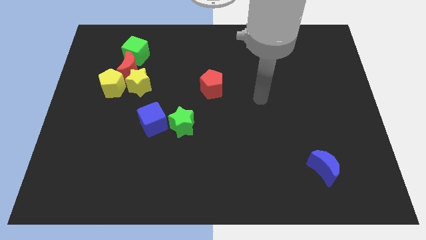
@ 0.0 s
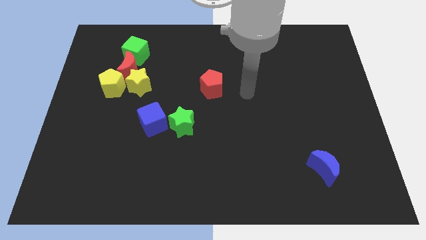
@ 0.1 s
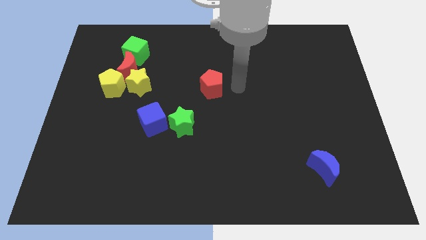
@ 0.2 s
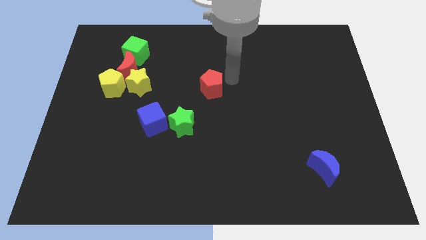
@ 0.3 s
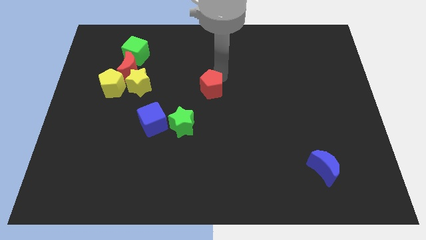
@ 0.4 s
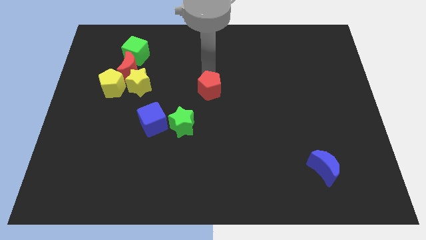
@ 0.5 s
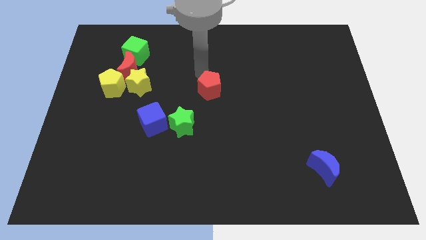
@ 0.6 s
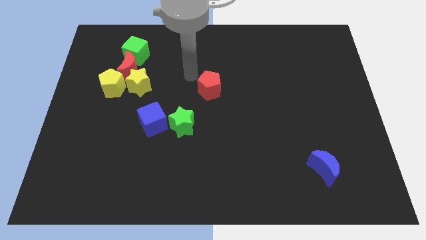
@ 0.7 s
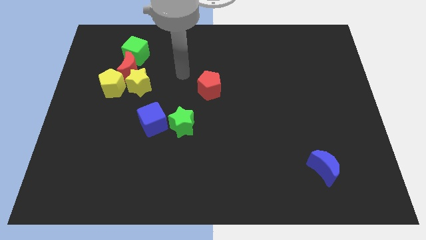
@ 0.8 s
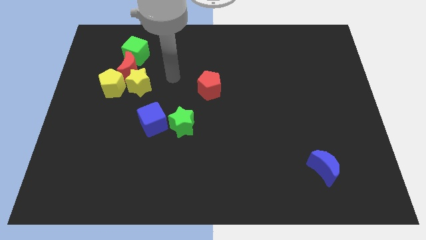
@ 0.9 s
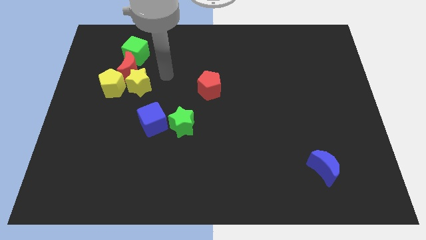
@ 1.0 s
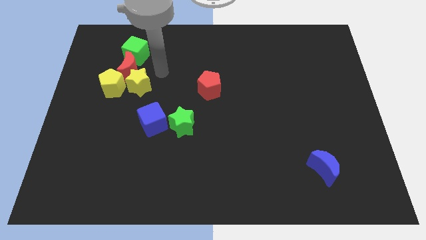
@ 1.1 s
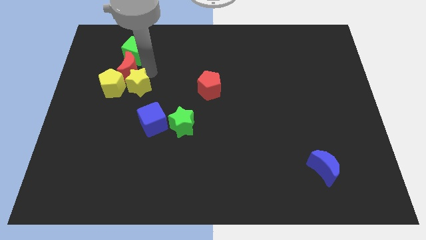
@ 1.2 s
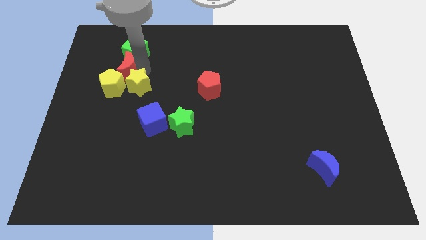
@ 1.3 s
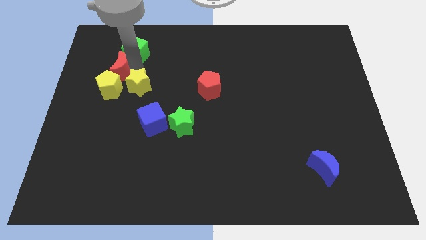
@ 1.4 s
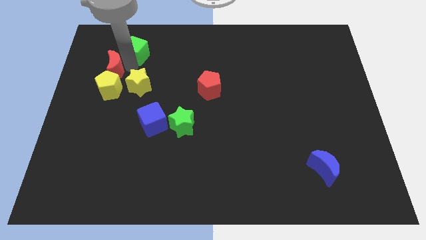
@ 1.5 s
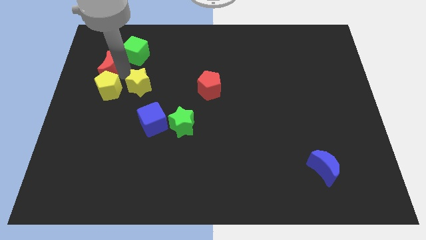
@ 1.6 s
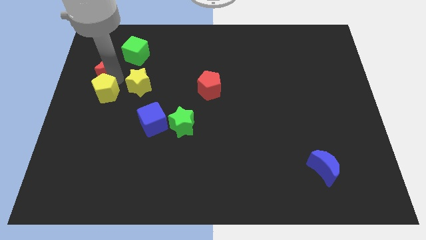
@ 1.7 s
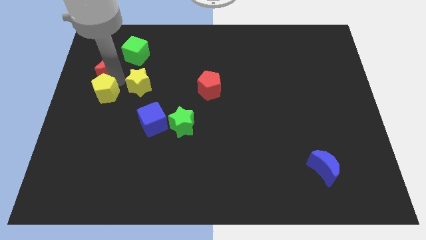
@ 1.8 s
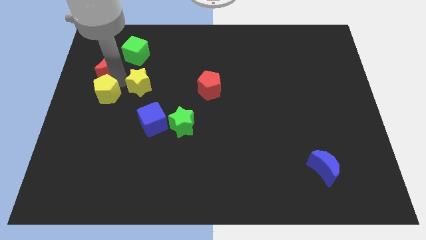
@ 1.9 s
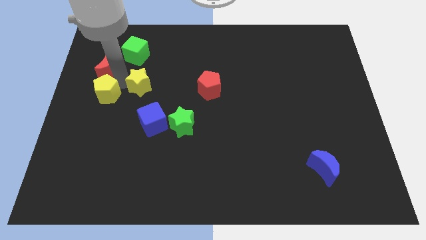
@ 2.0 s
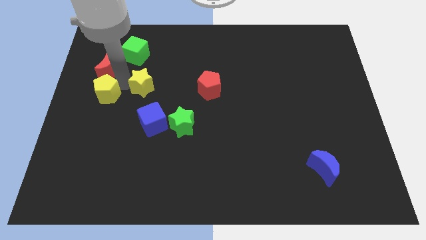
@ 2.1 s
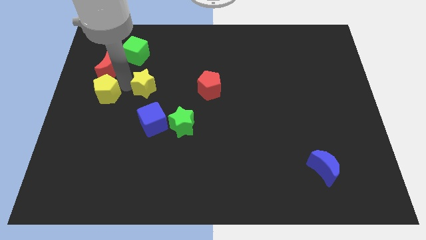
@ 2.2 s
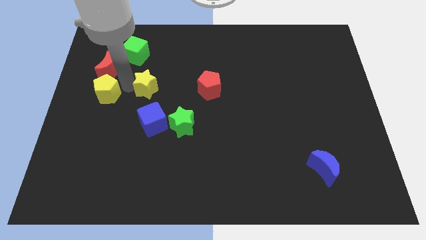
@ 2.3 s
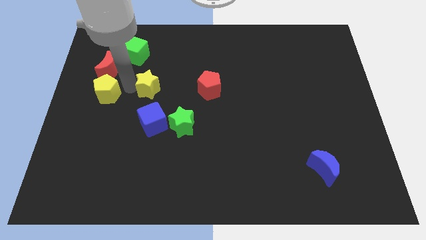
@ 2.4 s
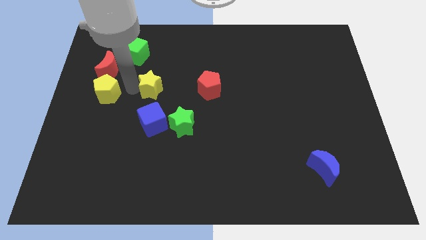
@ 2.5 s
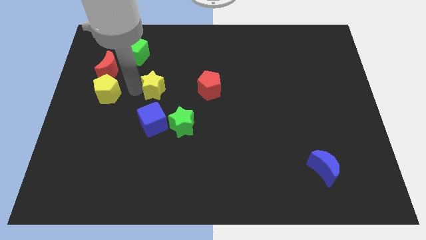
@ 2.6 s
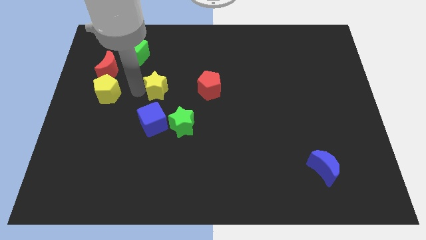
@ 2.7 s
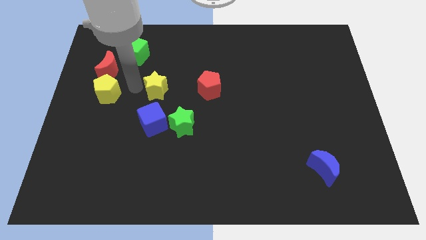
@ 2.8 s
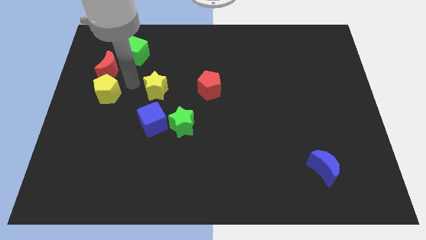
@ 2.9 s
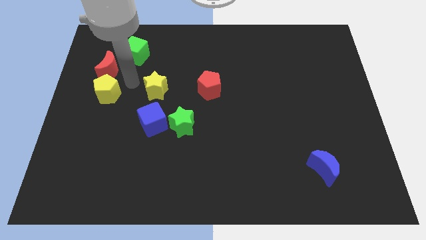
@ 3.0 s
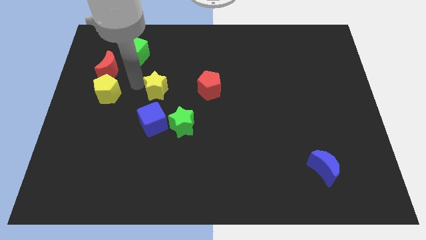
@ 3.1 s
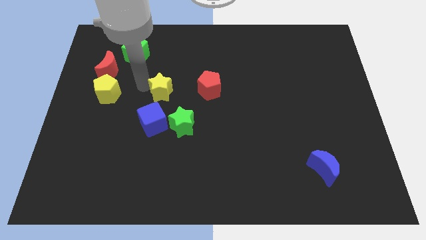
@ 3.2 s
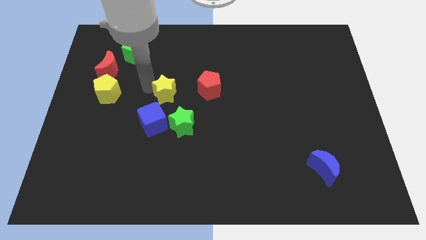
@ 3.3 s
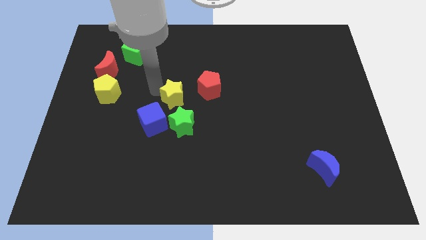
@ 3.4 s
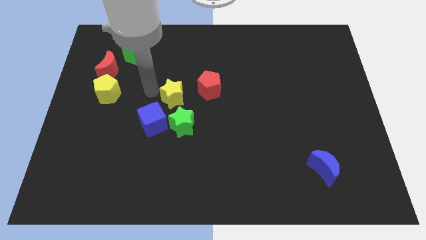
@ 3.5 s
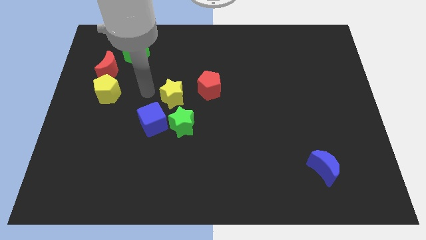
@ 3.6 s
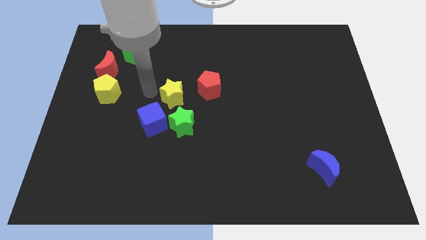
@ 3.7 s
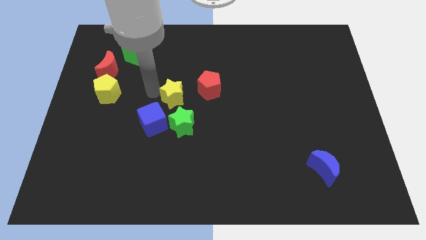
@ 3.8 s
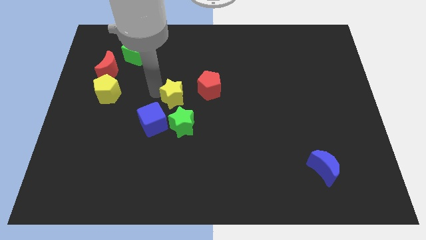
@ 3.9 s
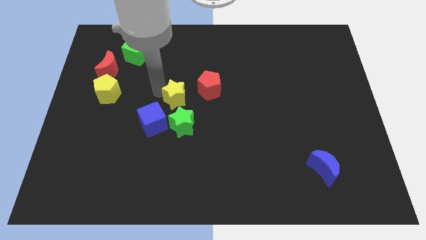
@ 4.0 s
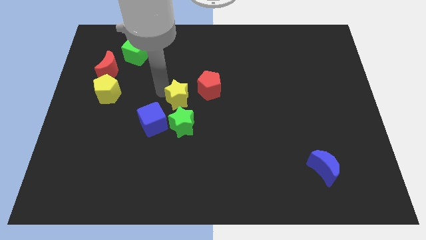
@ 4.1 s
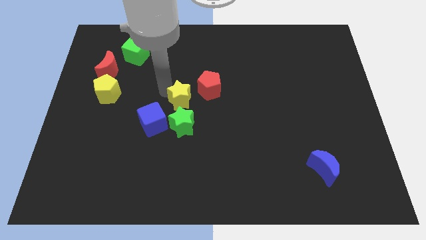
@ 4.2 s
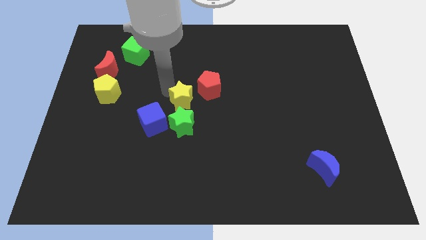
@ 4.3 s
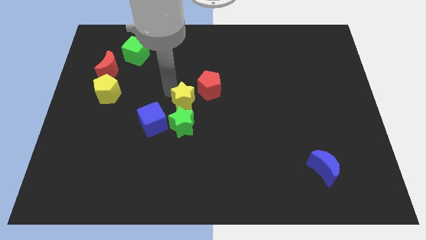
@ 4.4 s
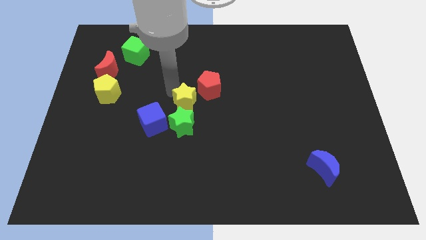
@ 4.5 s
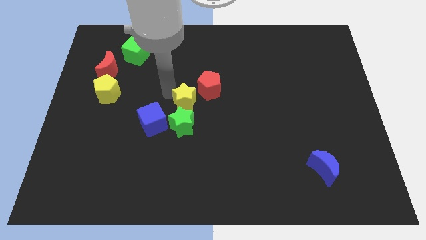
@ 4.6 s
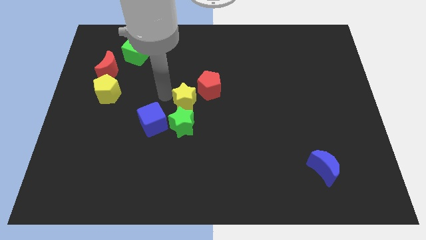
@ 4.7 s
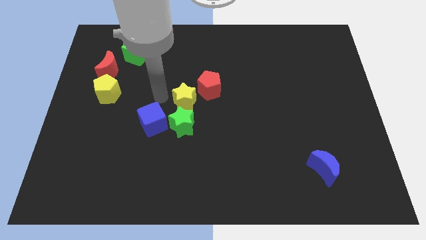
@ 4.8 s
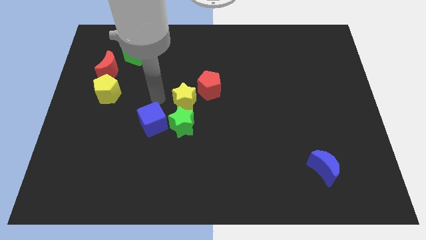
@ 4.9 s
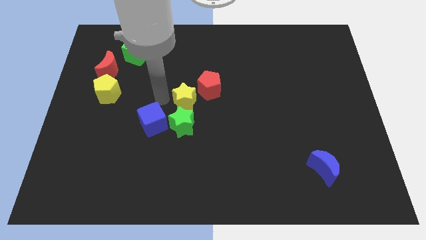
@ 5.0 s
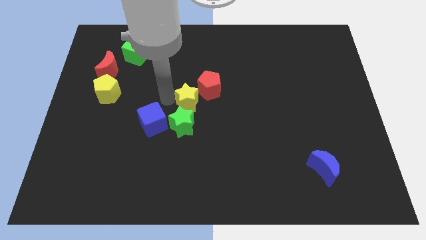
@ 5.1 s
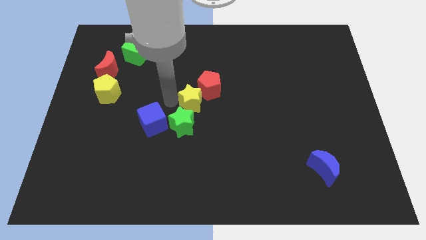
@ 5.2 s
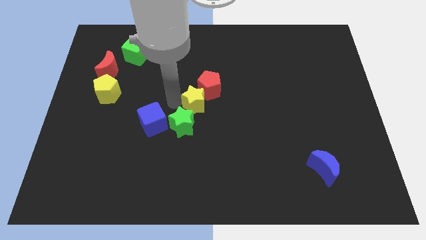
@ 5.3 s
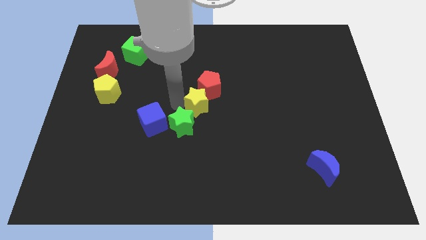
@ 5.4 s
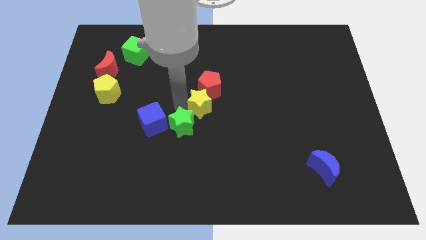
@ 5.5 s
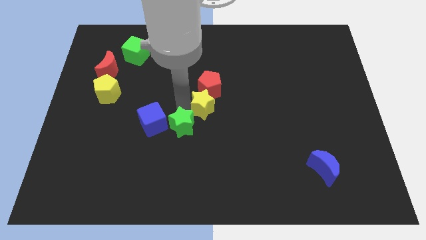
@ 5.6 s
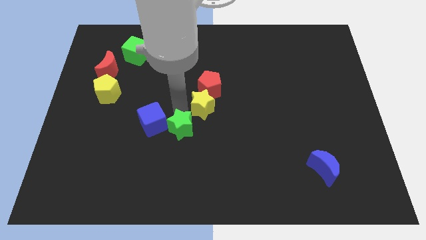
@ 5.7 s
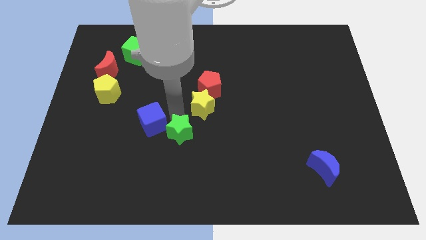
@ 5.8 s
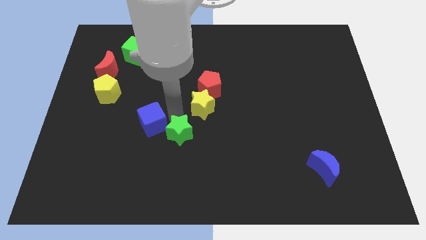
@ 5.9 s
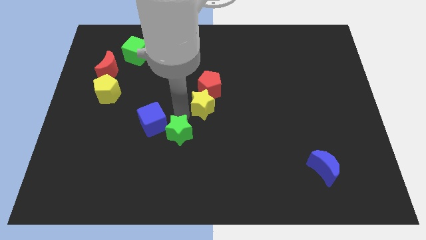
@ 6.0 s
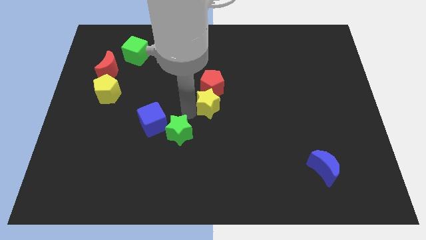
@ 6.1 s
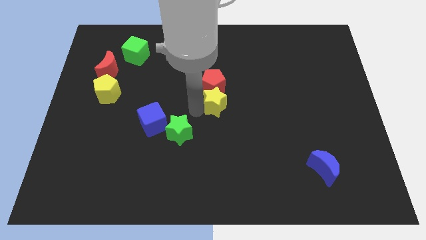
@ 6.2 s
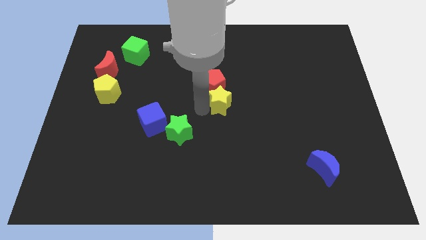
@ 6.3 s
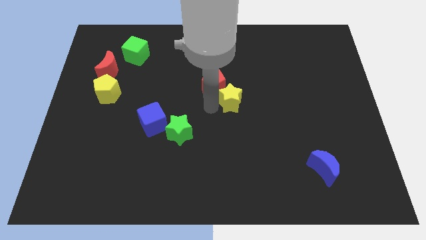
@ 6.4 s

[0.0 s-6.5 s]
move the yellow star right

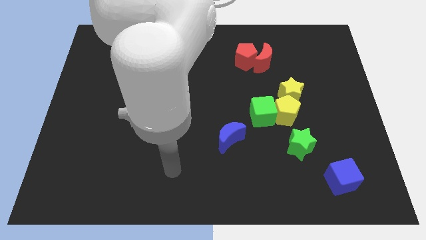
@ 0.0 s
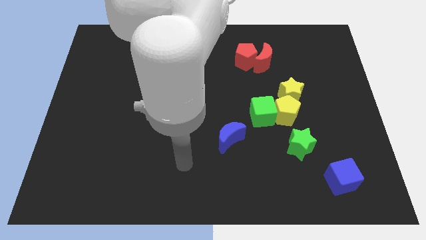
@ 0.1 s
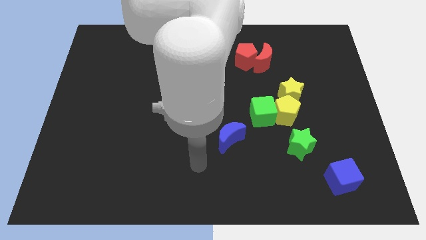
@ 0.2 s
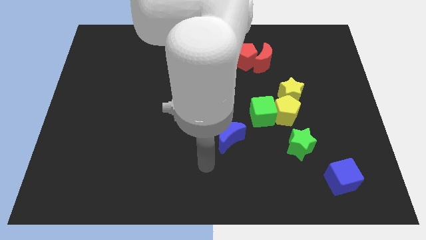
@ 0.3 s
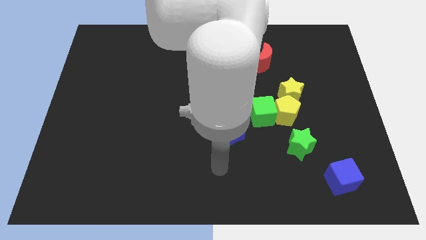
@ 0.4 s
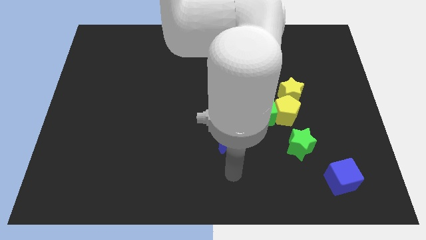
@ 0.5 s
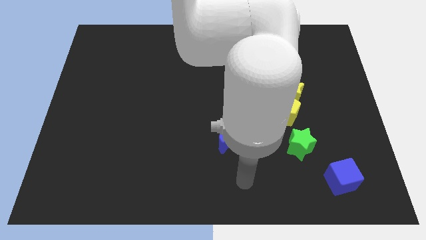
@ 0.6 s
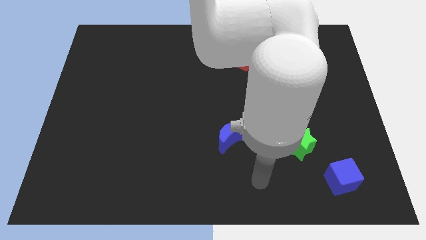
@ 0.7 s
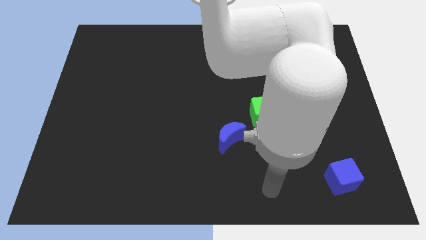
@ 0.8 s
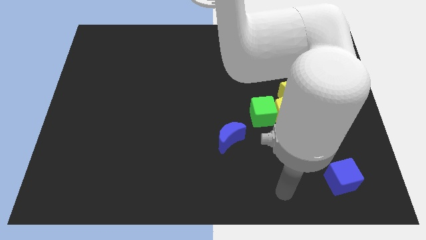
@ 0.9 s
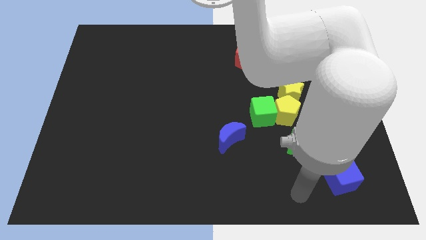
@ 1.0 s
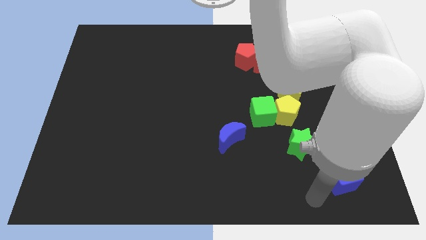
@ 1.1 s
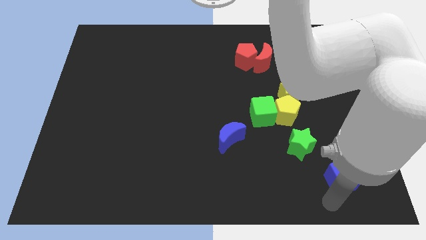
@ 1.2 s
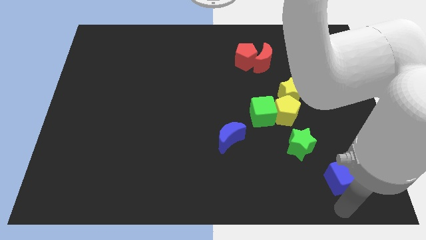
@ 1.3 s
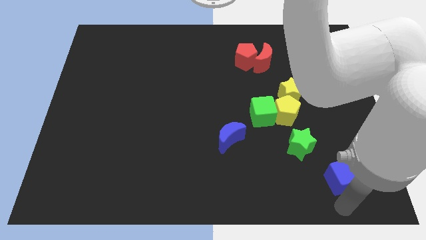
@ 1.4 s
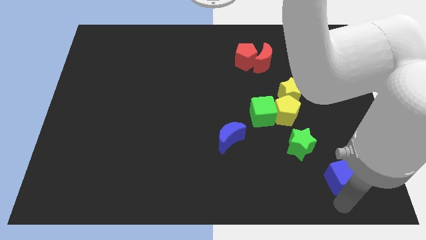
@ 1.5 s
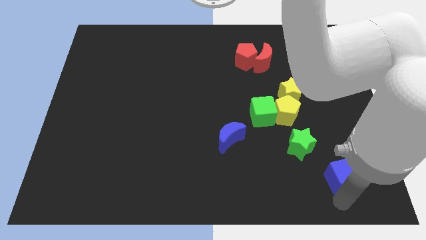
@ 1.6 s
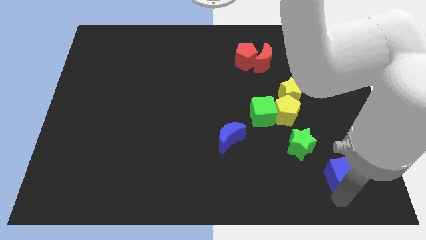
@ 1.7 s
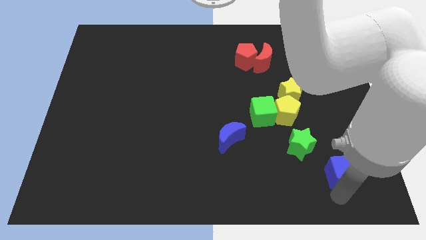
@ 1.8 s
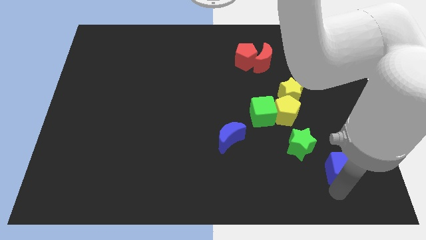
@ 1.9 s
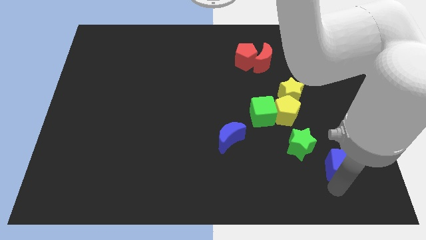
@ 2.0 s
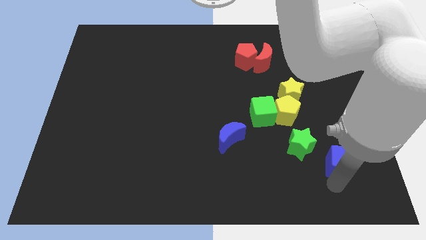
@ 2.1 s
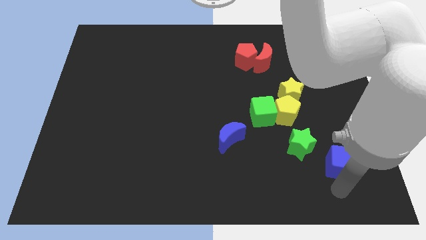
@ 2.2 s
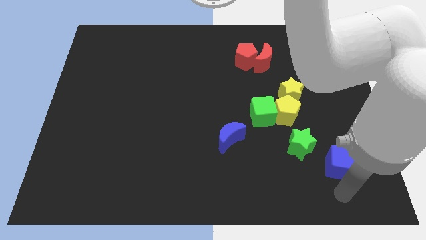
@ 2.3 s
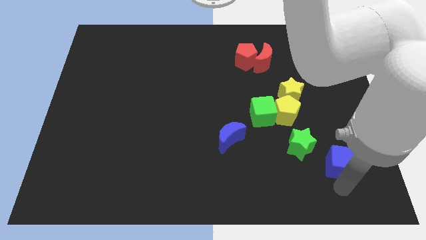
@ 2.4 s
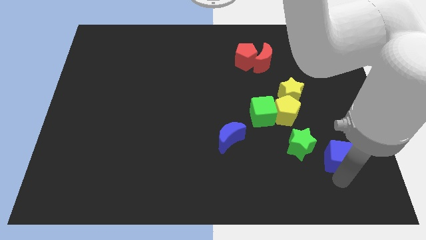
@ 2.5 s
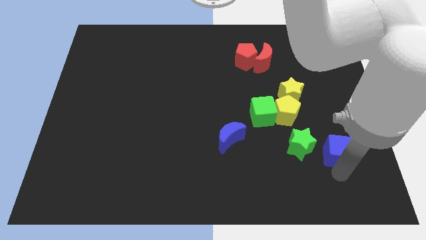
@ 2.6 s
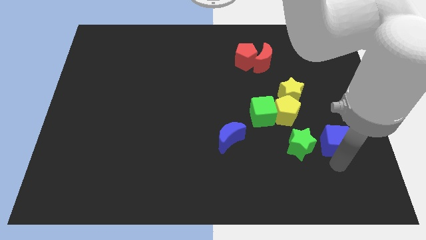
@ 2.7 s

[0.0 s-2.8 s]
move the blue cube somewhat upwards
